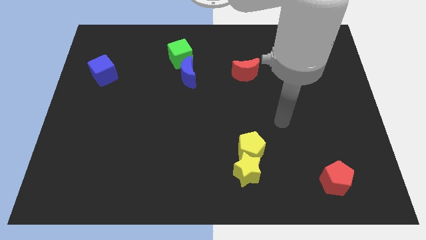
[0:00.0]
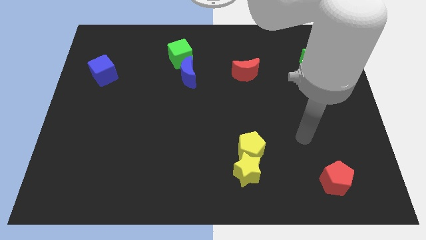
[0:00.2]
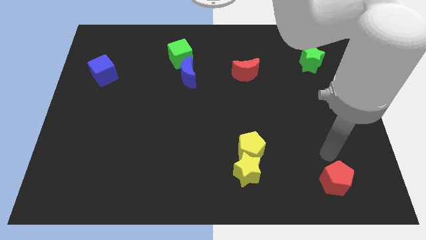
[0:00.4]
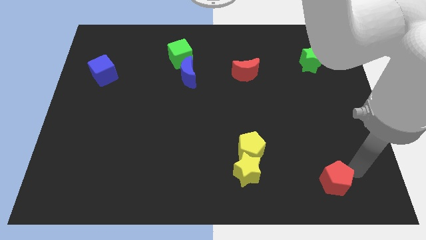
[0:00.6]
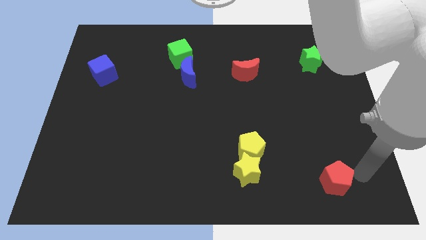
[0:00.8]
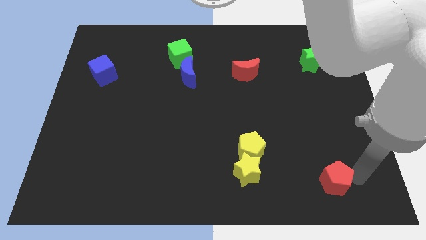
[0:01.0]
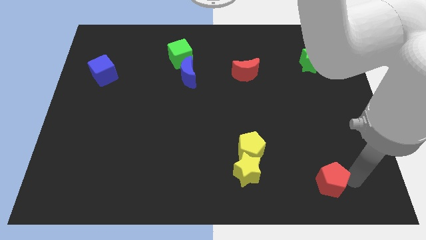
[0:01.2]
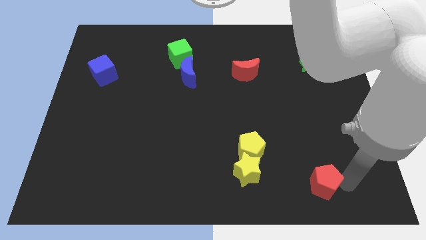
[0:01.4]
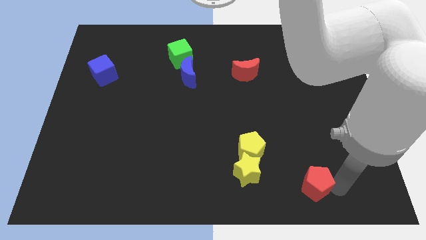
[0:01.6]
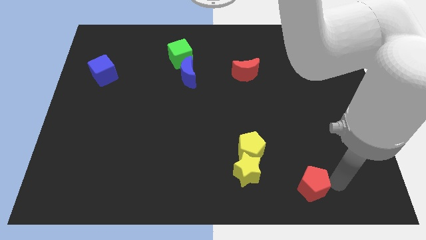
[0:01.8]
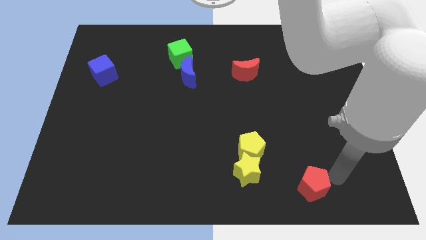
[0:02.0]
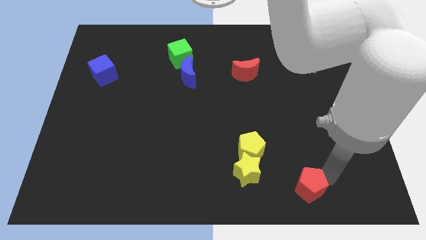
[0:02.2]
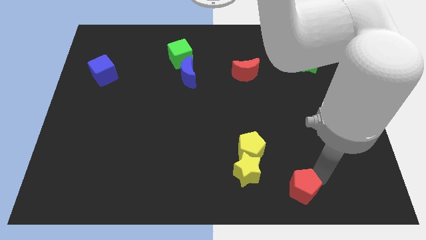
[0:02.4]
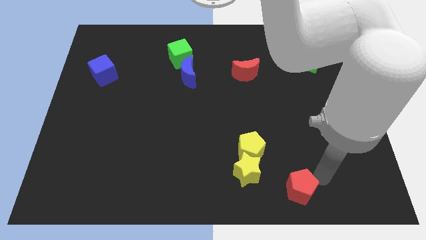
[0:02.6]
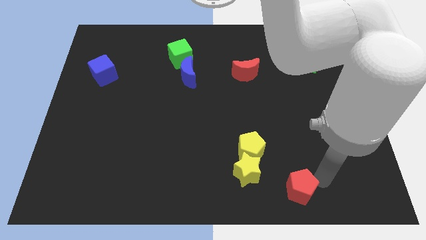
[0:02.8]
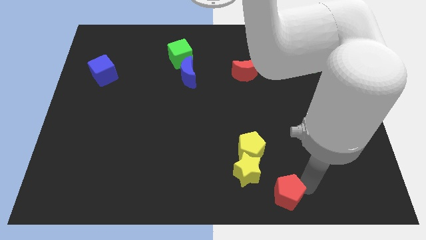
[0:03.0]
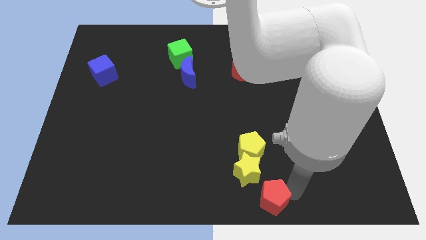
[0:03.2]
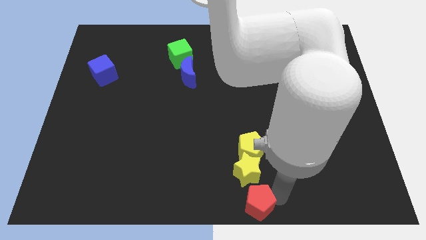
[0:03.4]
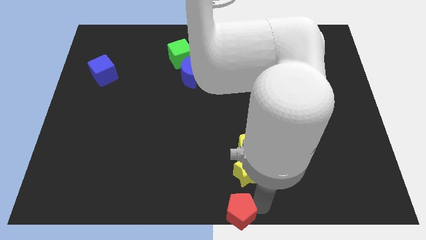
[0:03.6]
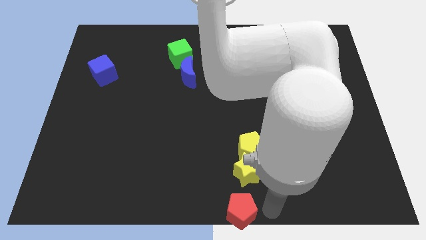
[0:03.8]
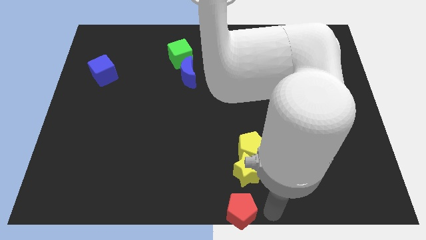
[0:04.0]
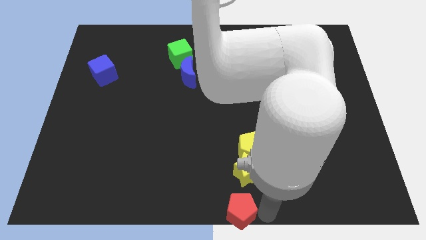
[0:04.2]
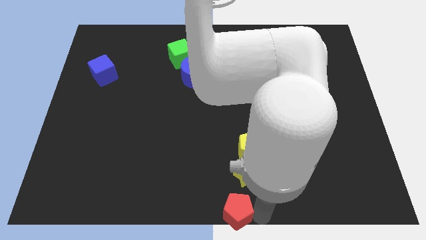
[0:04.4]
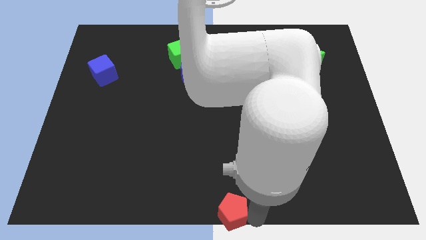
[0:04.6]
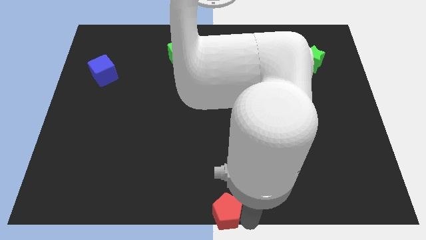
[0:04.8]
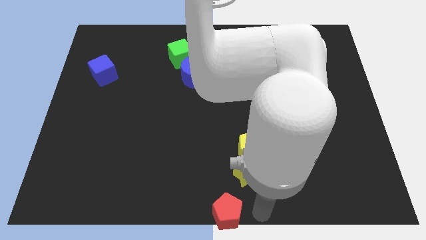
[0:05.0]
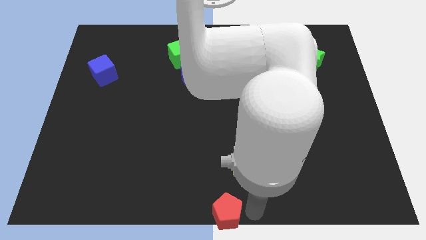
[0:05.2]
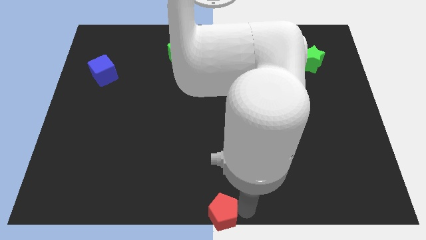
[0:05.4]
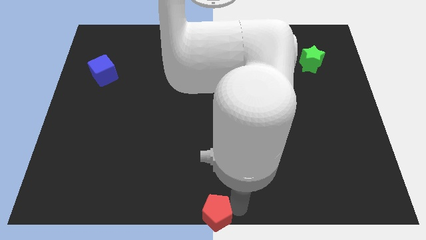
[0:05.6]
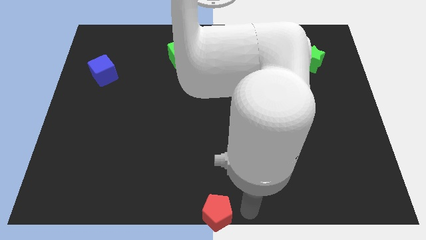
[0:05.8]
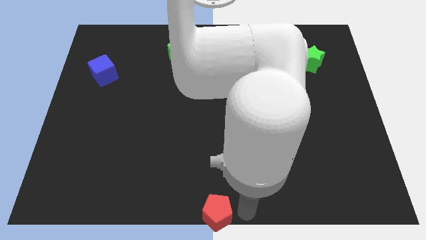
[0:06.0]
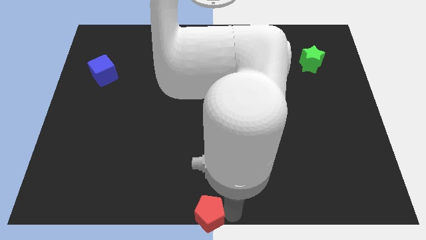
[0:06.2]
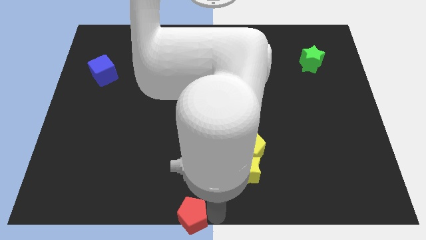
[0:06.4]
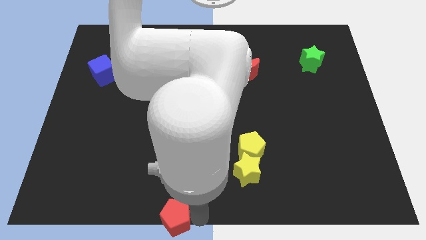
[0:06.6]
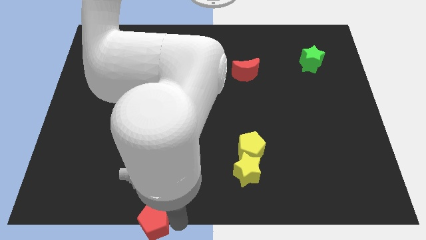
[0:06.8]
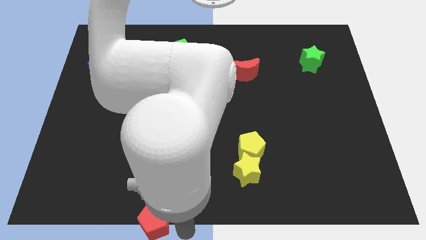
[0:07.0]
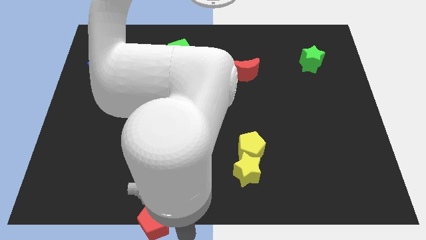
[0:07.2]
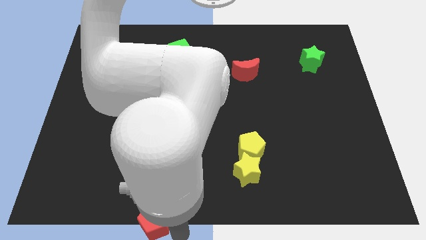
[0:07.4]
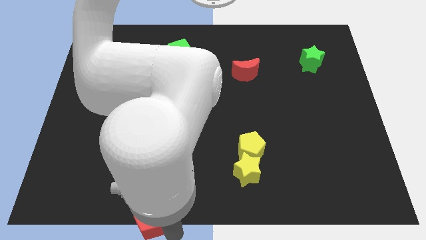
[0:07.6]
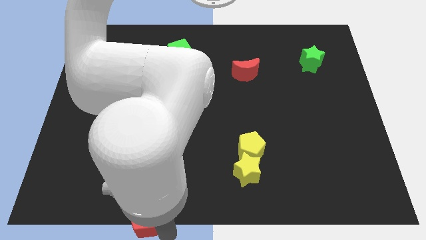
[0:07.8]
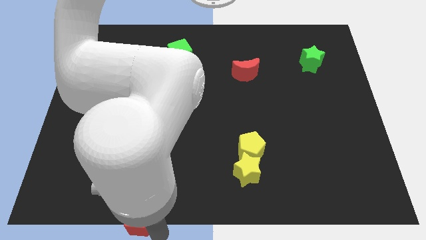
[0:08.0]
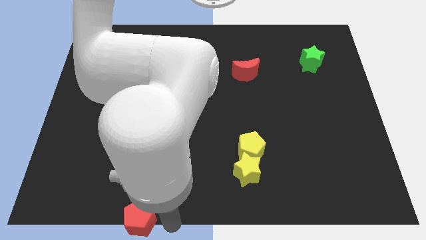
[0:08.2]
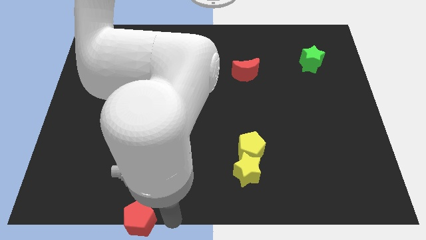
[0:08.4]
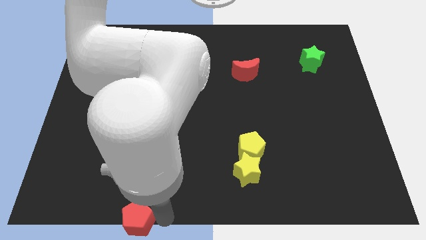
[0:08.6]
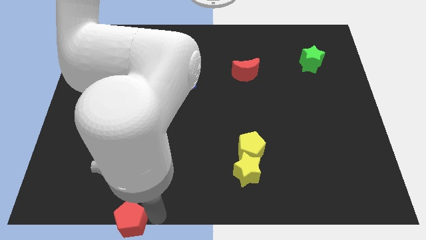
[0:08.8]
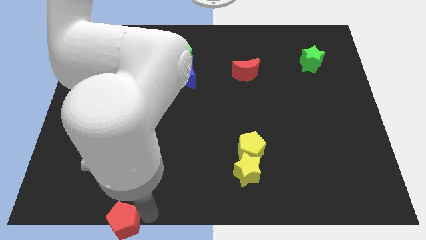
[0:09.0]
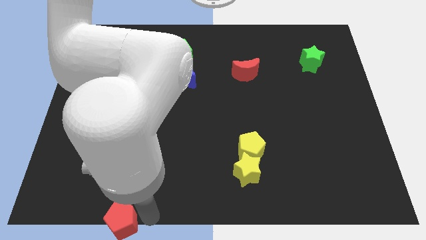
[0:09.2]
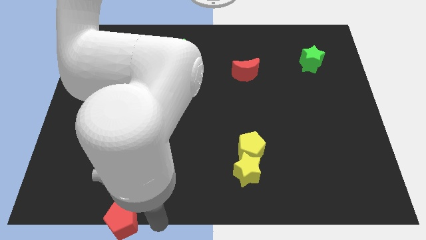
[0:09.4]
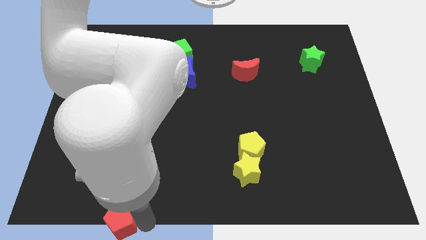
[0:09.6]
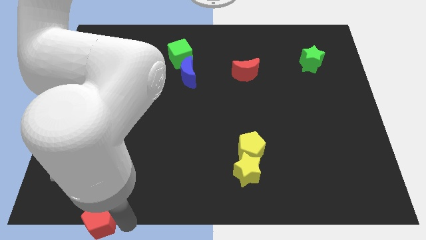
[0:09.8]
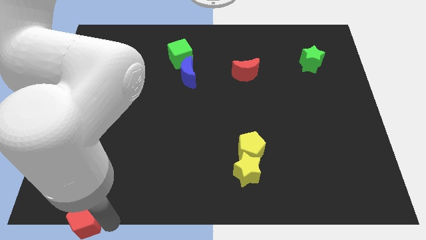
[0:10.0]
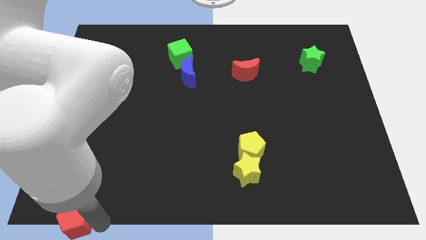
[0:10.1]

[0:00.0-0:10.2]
push the red pentagon to the bottom left of the board

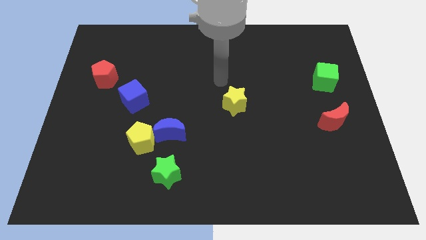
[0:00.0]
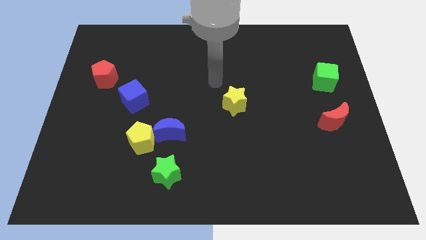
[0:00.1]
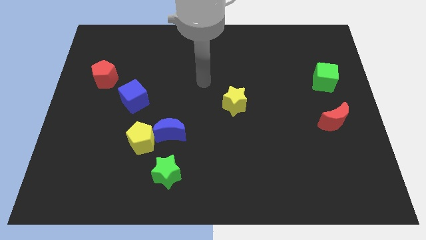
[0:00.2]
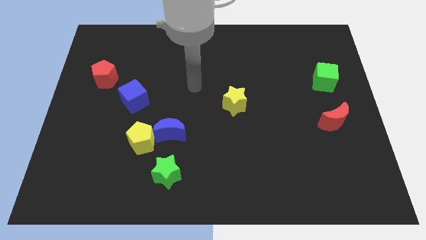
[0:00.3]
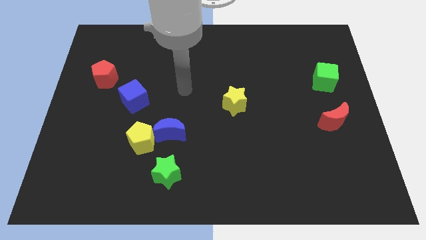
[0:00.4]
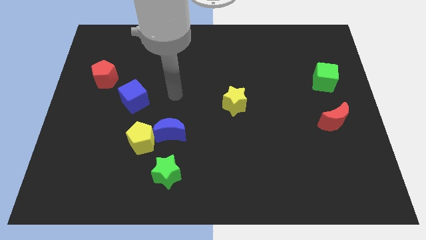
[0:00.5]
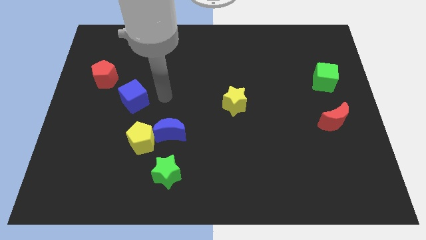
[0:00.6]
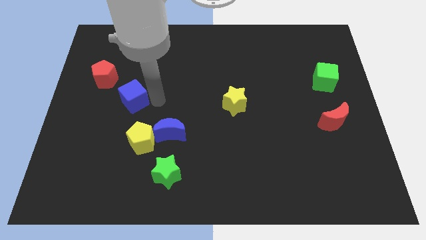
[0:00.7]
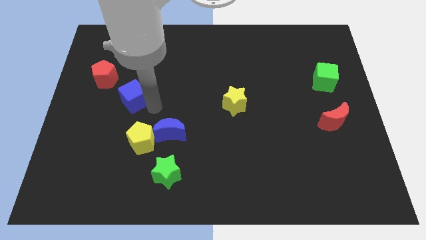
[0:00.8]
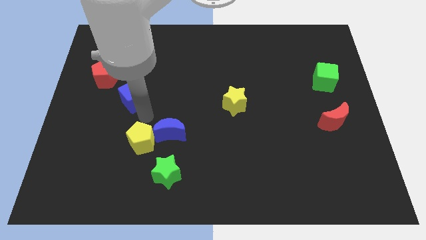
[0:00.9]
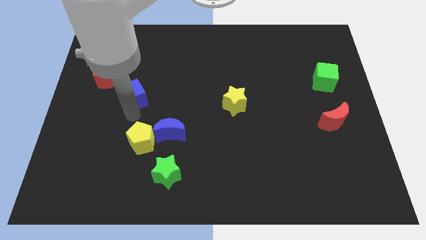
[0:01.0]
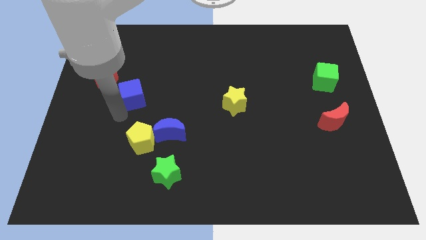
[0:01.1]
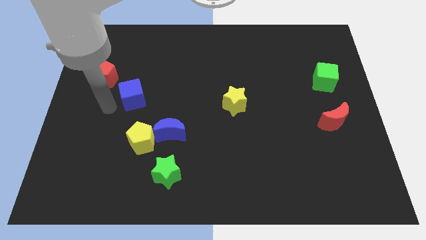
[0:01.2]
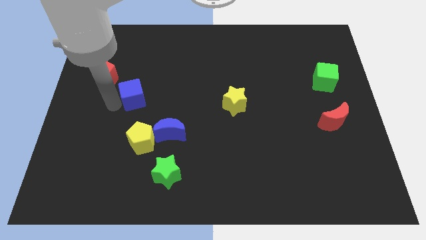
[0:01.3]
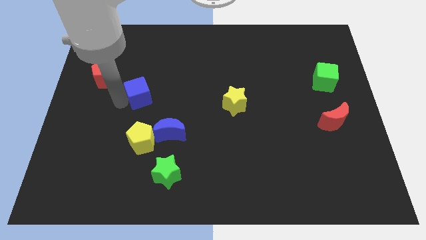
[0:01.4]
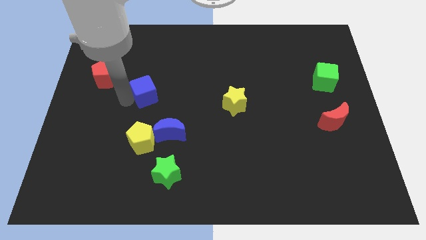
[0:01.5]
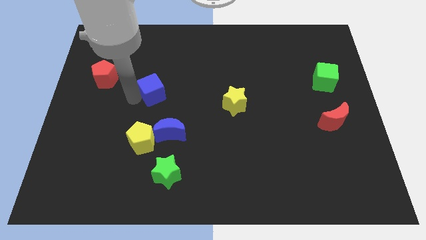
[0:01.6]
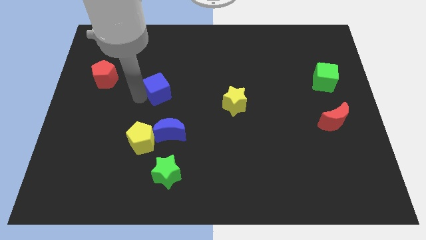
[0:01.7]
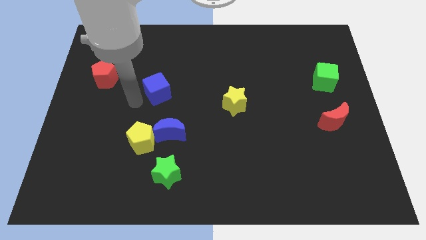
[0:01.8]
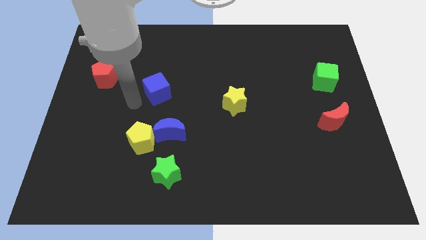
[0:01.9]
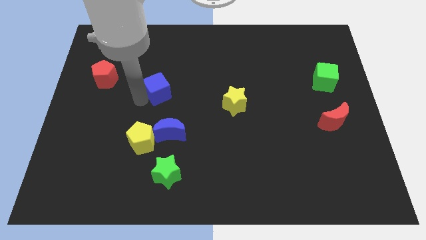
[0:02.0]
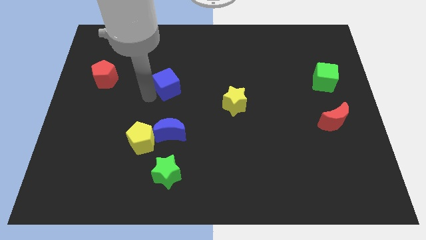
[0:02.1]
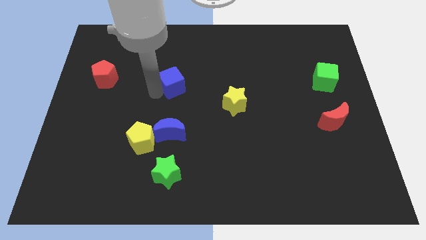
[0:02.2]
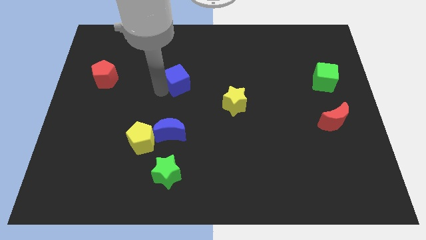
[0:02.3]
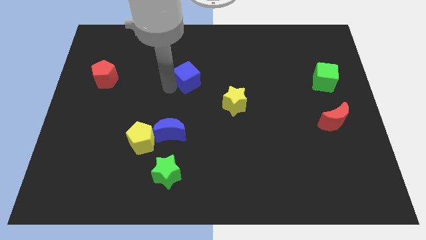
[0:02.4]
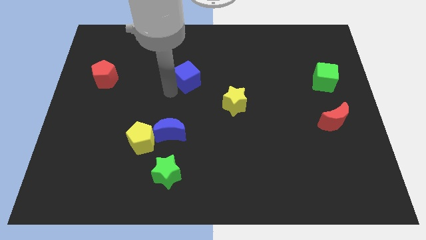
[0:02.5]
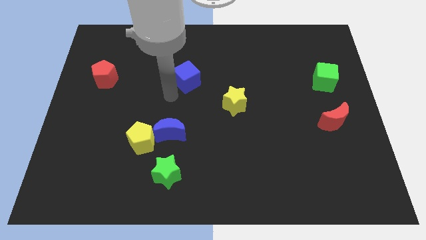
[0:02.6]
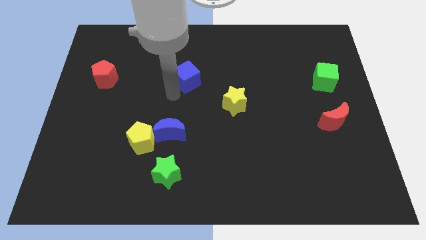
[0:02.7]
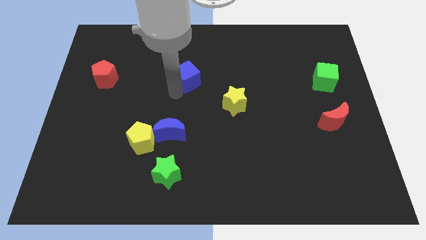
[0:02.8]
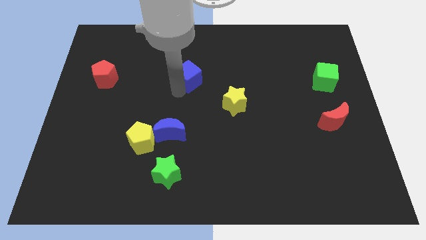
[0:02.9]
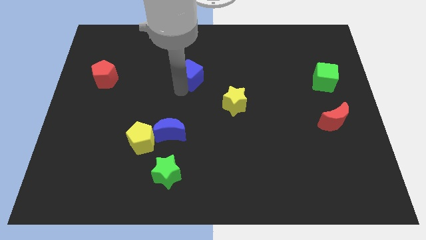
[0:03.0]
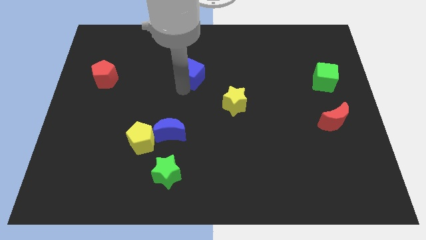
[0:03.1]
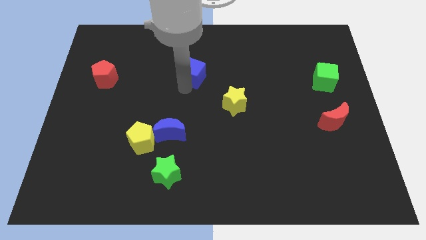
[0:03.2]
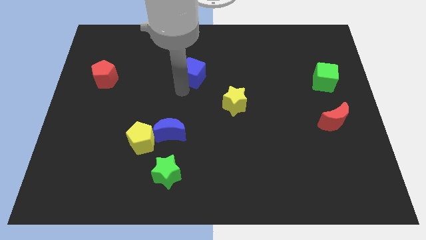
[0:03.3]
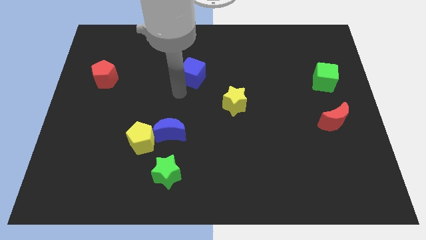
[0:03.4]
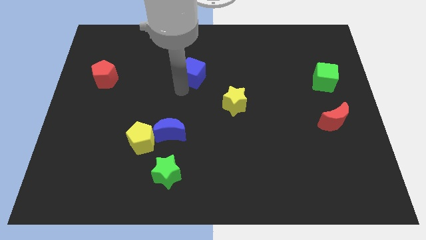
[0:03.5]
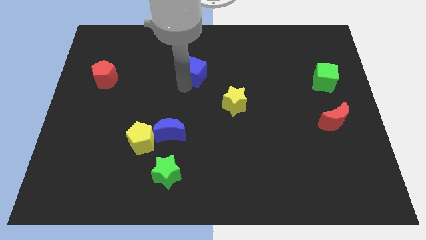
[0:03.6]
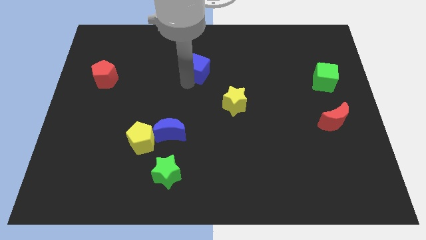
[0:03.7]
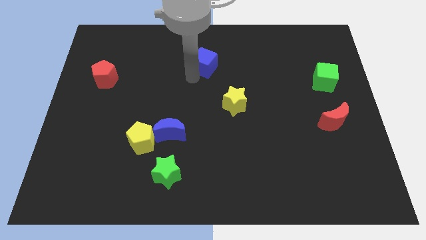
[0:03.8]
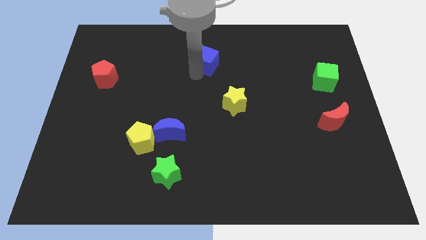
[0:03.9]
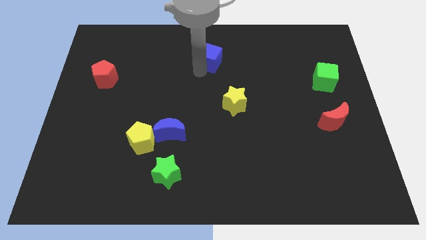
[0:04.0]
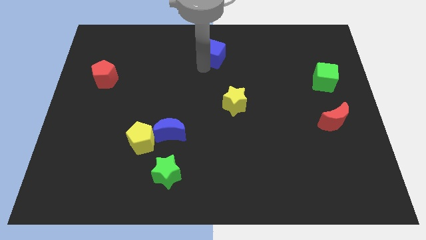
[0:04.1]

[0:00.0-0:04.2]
push the blue cube to the top
